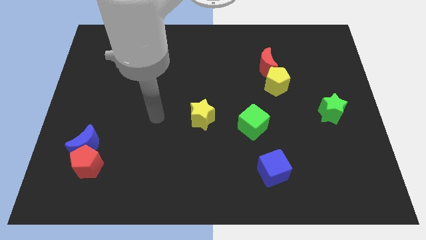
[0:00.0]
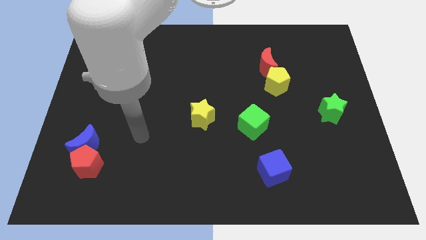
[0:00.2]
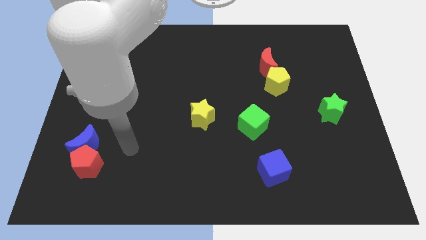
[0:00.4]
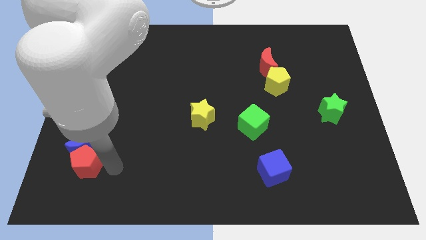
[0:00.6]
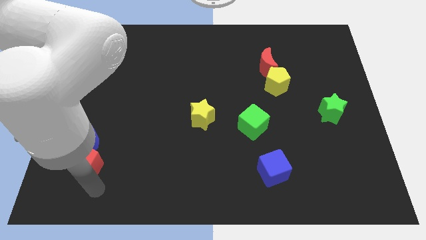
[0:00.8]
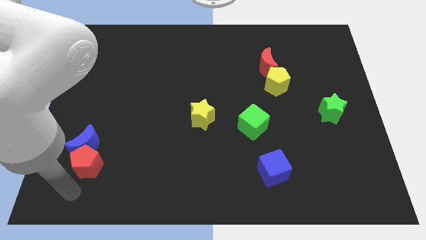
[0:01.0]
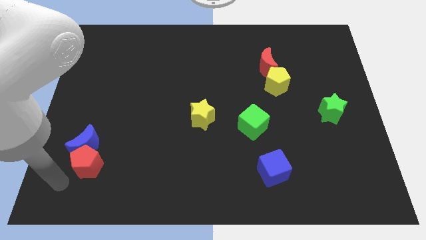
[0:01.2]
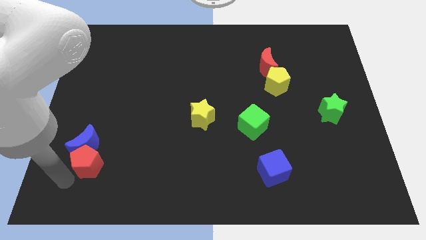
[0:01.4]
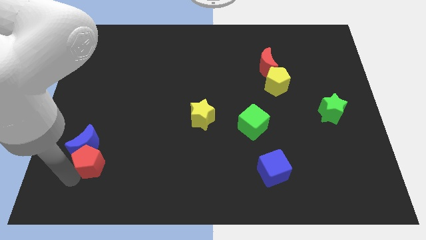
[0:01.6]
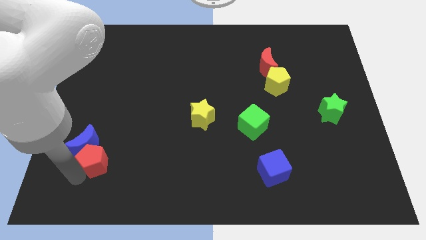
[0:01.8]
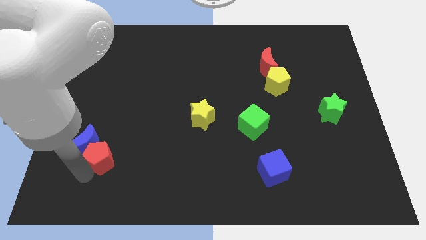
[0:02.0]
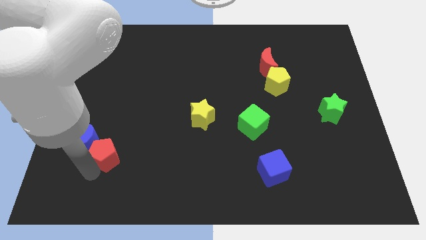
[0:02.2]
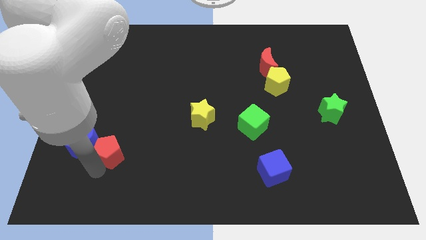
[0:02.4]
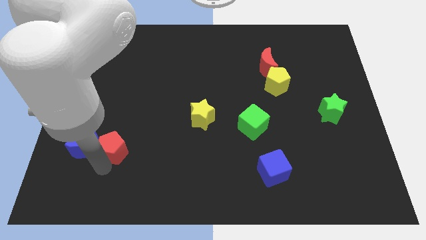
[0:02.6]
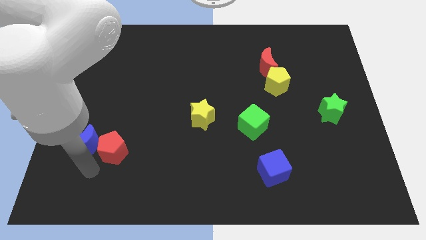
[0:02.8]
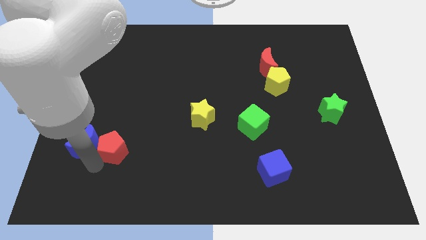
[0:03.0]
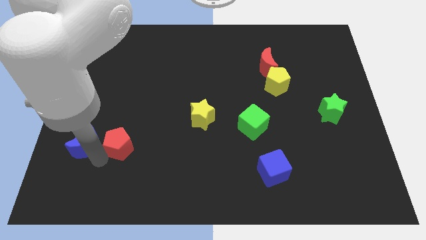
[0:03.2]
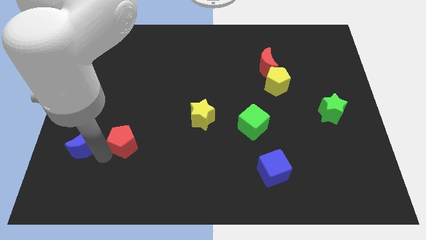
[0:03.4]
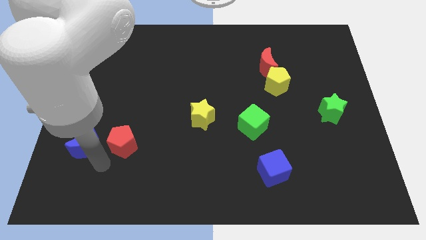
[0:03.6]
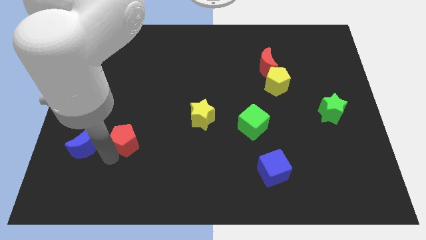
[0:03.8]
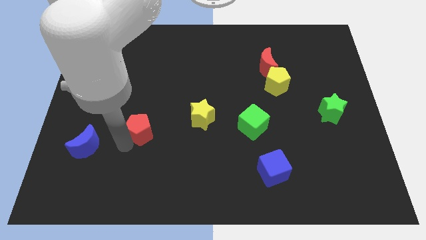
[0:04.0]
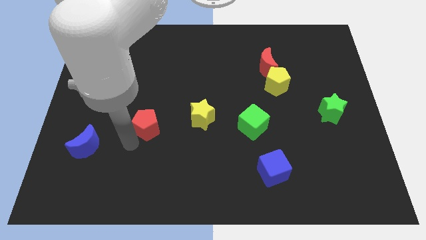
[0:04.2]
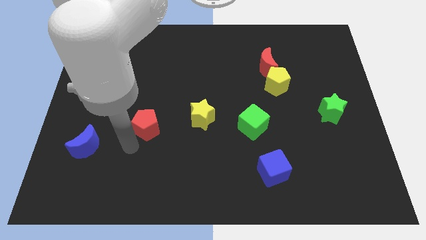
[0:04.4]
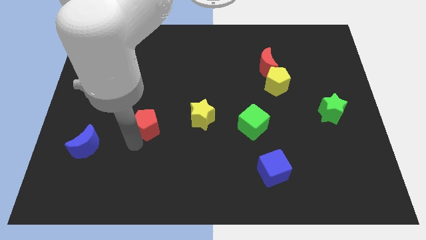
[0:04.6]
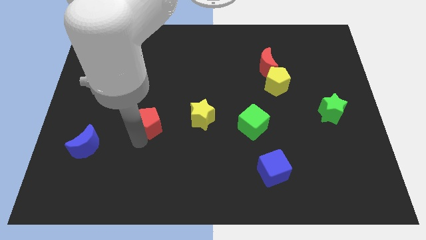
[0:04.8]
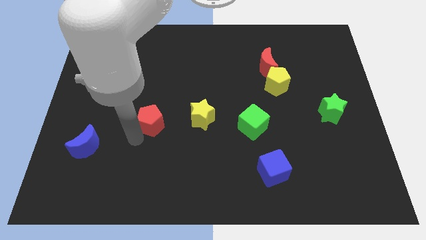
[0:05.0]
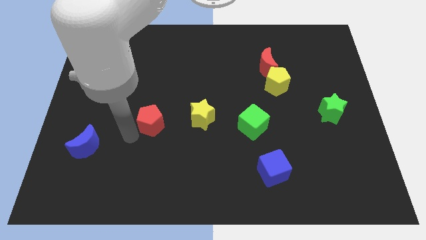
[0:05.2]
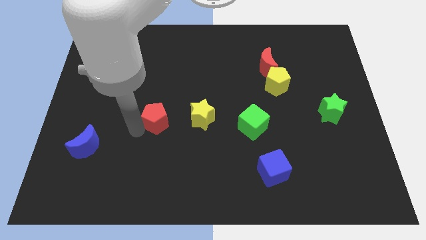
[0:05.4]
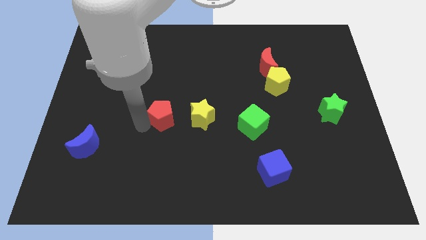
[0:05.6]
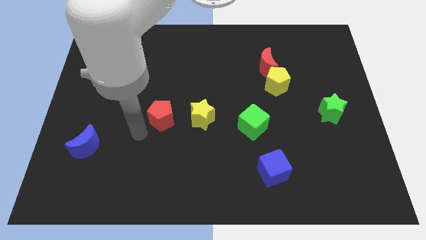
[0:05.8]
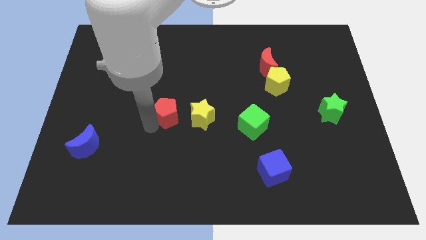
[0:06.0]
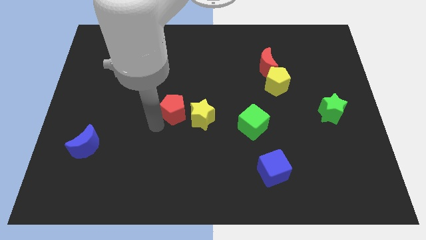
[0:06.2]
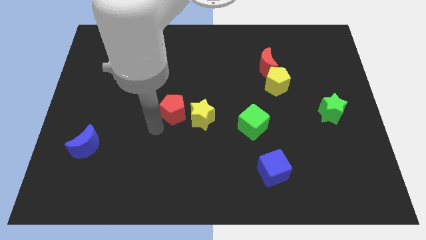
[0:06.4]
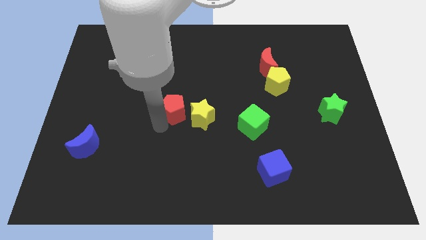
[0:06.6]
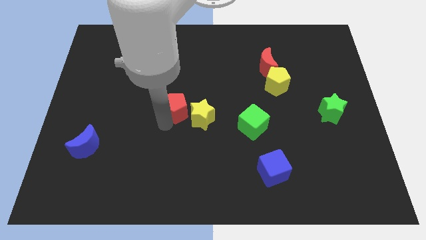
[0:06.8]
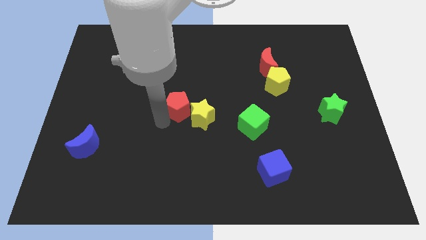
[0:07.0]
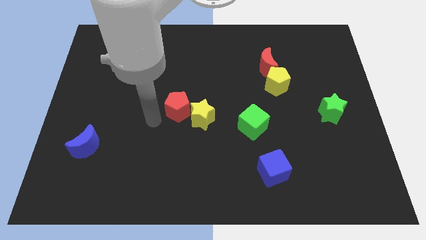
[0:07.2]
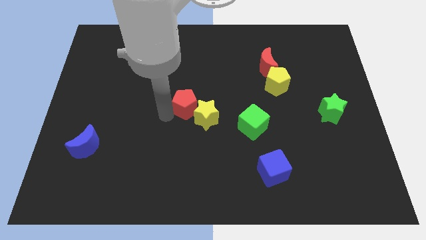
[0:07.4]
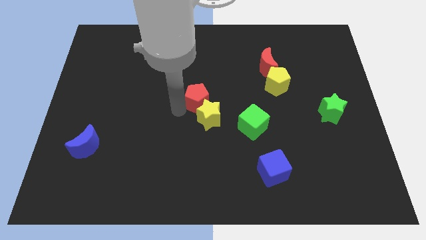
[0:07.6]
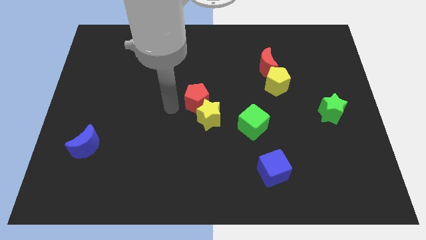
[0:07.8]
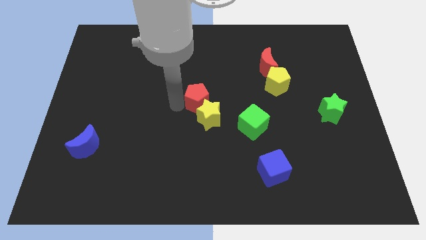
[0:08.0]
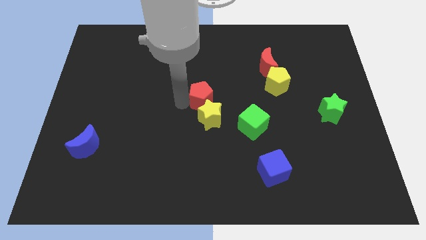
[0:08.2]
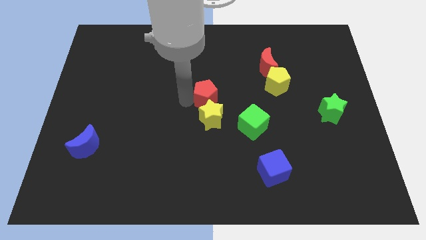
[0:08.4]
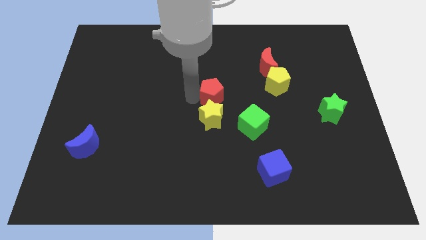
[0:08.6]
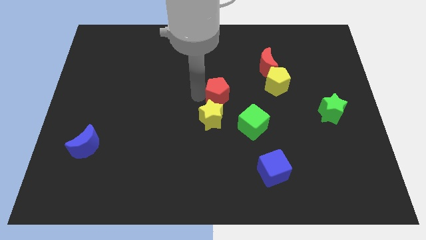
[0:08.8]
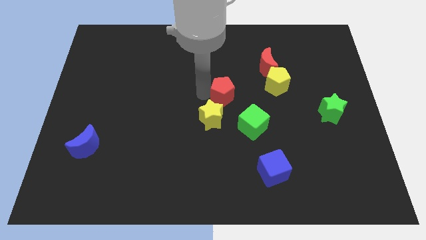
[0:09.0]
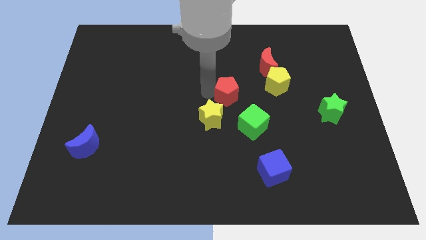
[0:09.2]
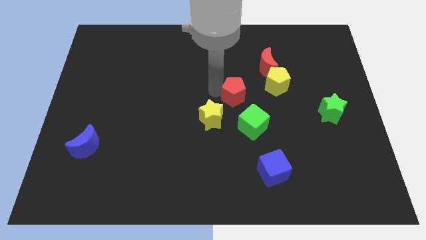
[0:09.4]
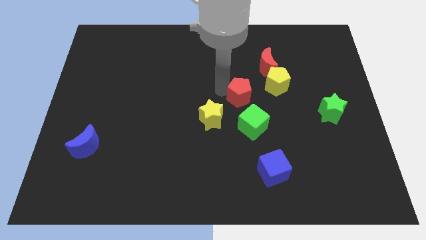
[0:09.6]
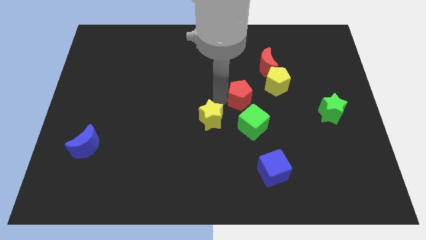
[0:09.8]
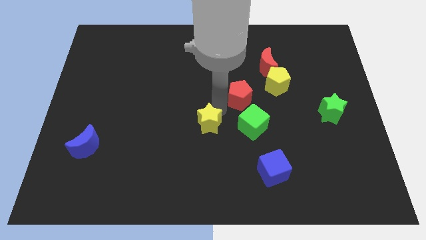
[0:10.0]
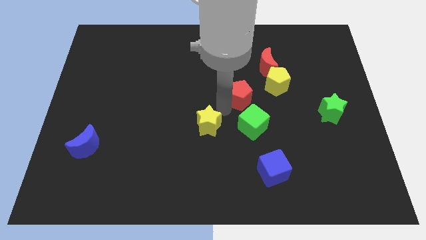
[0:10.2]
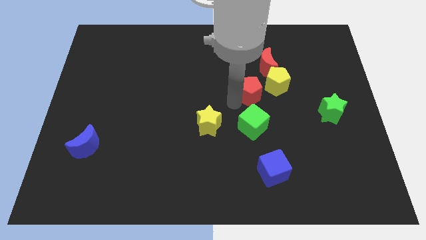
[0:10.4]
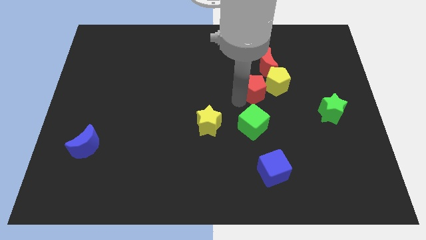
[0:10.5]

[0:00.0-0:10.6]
move the red pentagon close to the yellow pentagon

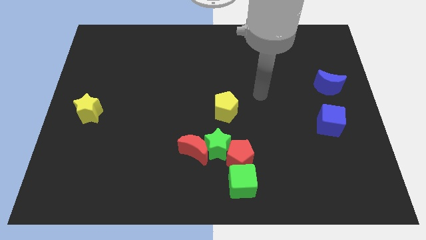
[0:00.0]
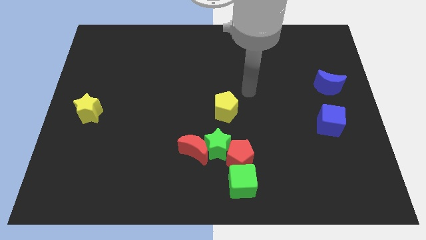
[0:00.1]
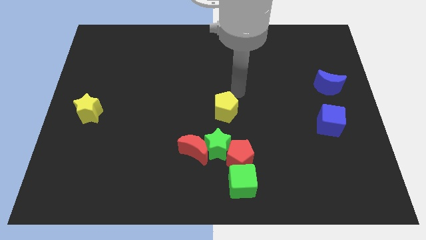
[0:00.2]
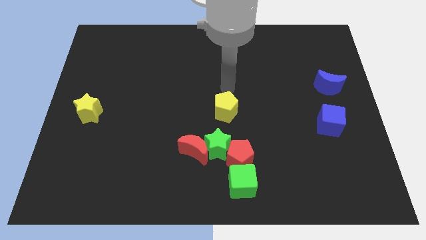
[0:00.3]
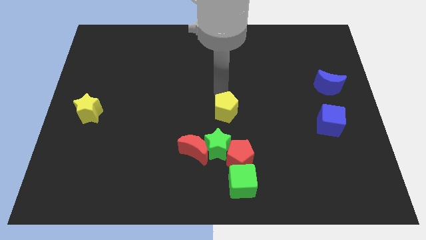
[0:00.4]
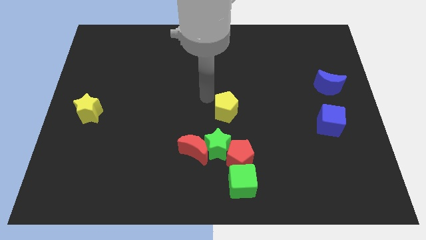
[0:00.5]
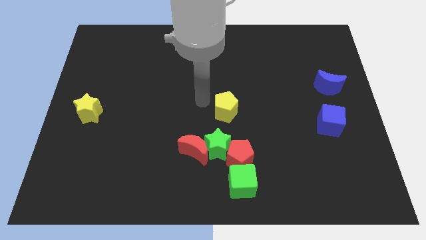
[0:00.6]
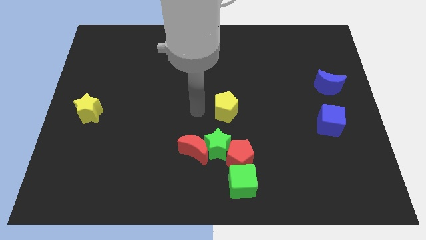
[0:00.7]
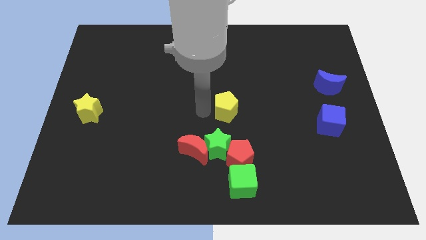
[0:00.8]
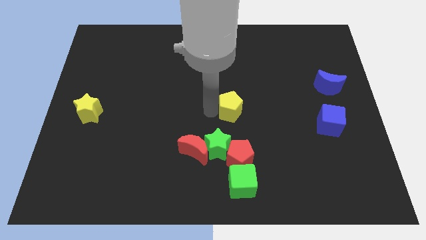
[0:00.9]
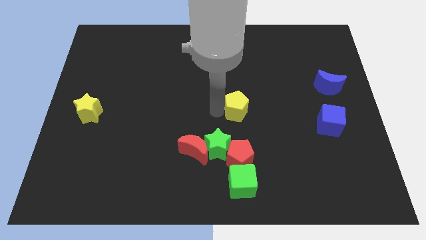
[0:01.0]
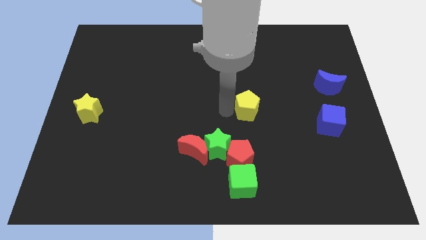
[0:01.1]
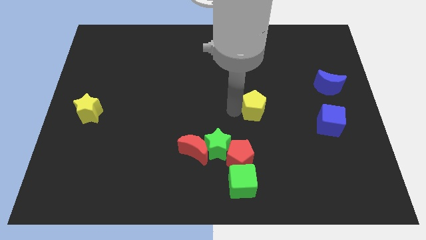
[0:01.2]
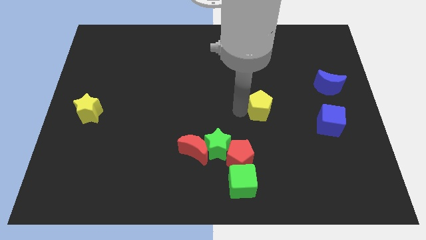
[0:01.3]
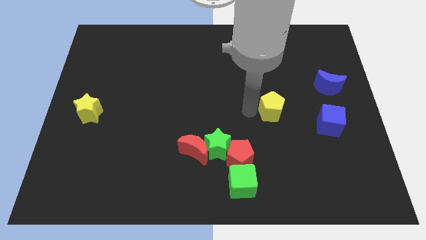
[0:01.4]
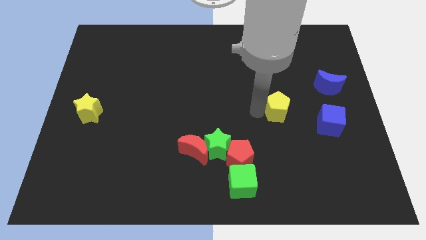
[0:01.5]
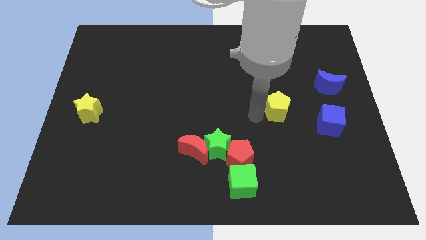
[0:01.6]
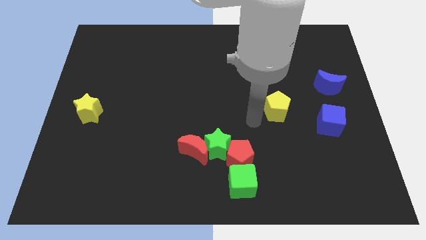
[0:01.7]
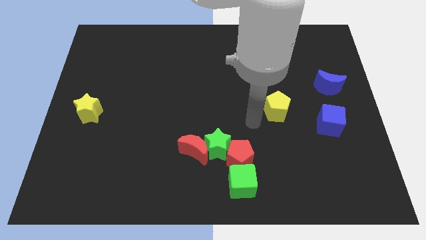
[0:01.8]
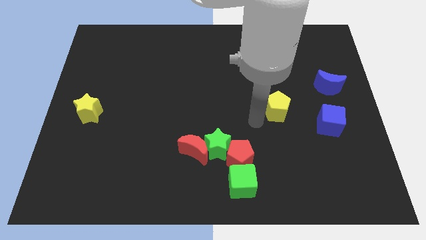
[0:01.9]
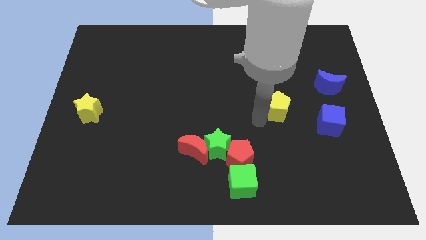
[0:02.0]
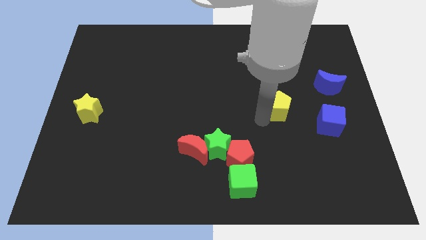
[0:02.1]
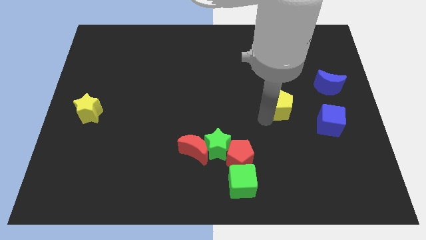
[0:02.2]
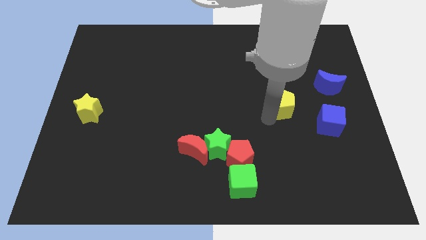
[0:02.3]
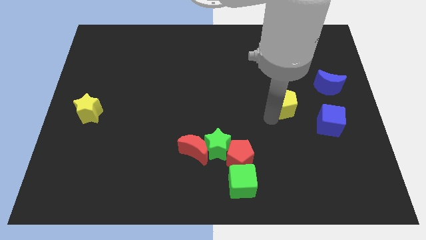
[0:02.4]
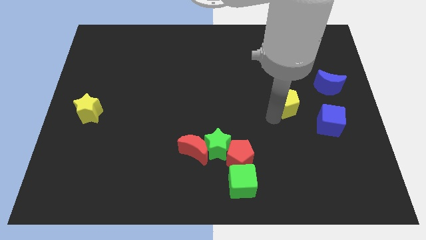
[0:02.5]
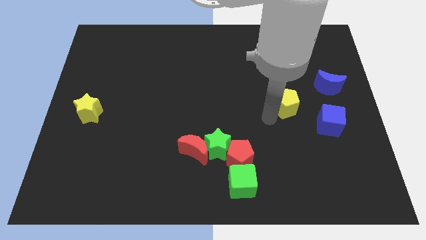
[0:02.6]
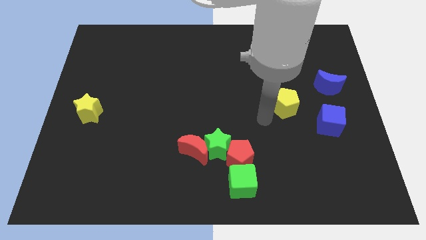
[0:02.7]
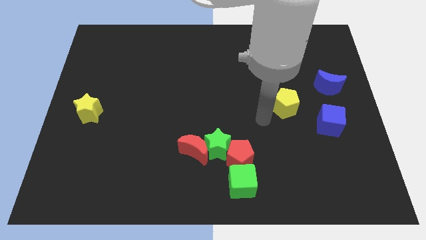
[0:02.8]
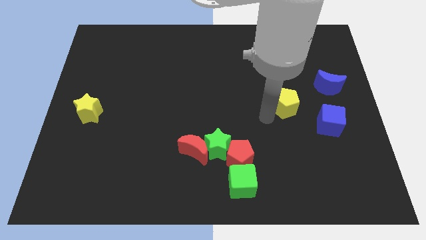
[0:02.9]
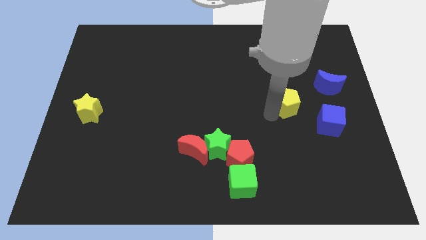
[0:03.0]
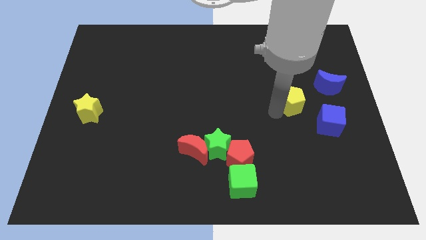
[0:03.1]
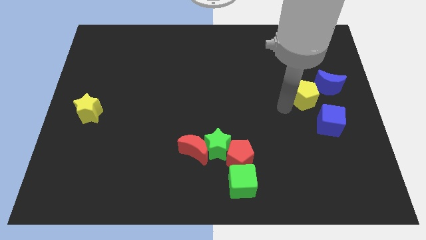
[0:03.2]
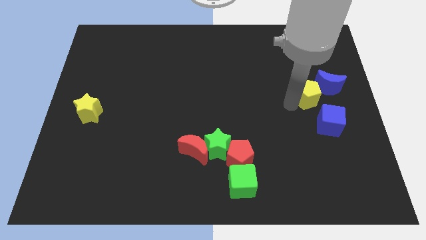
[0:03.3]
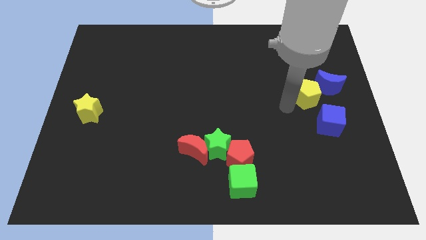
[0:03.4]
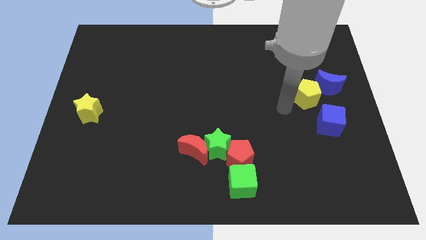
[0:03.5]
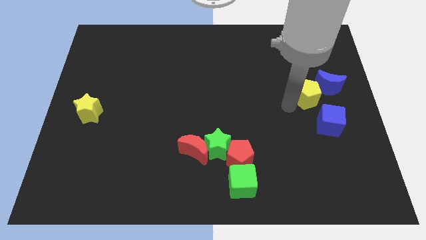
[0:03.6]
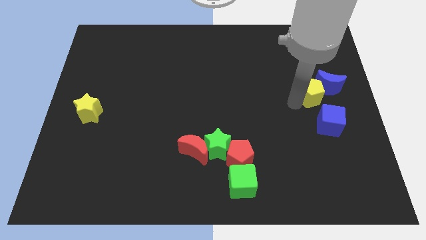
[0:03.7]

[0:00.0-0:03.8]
push the yellow pentagon towards the blue moon
